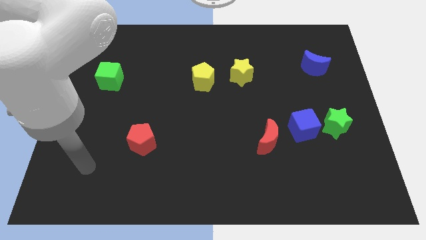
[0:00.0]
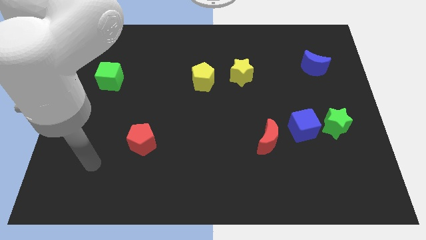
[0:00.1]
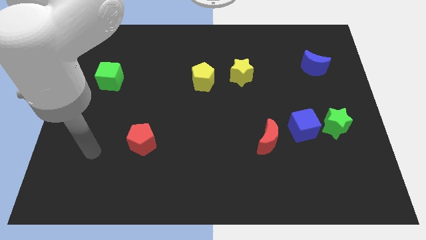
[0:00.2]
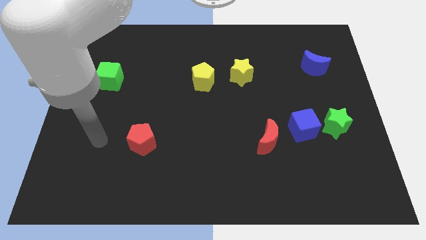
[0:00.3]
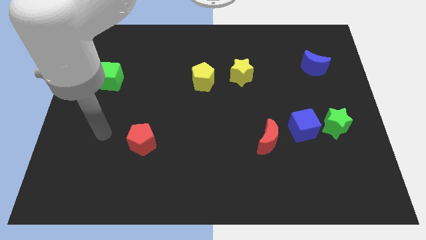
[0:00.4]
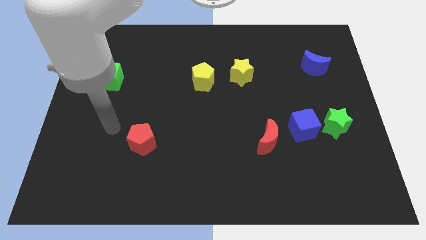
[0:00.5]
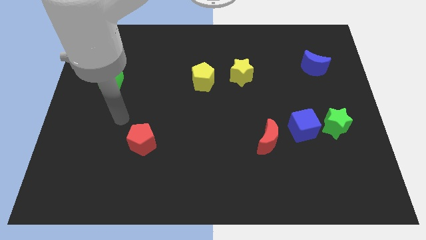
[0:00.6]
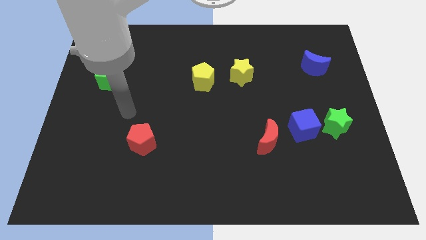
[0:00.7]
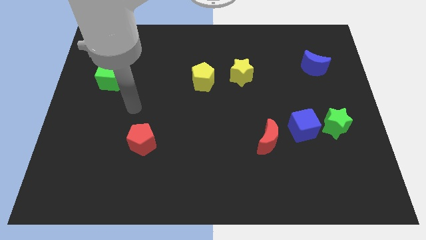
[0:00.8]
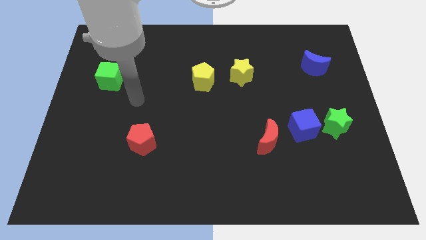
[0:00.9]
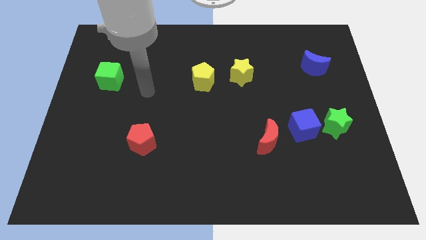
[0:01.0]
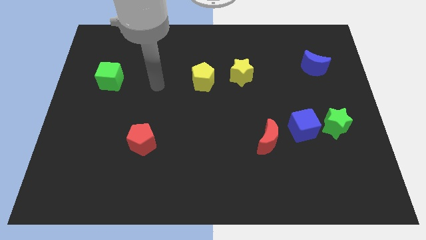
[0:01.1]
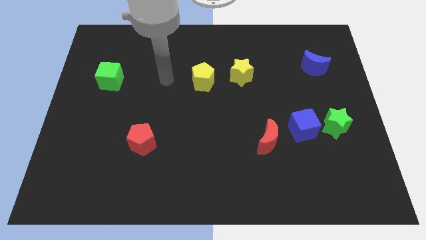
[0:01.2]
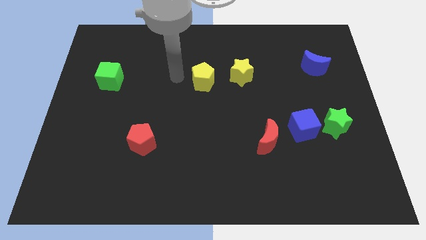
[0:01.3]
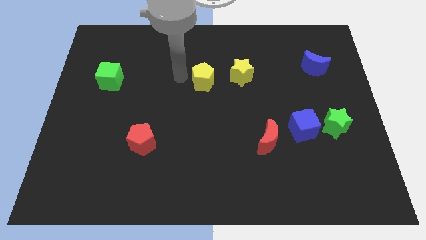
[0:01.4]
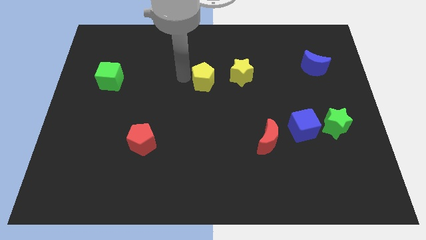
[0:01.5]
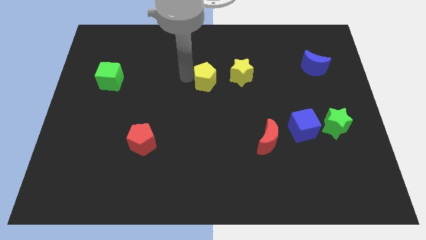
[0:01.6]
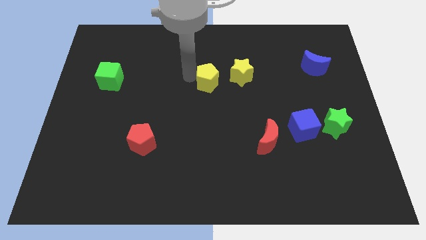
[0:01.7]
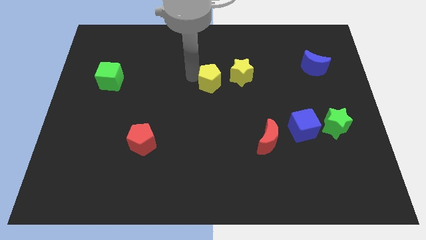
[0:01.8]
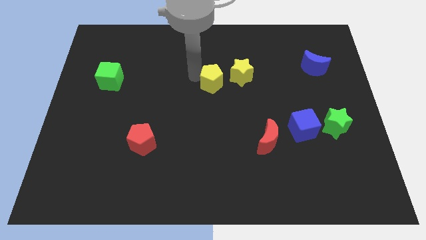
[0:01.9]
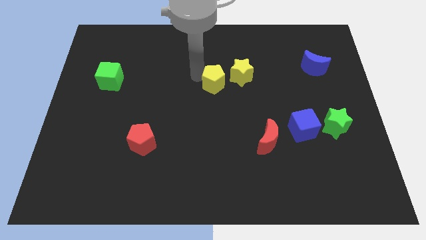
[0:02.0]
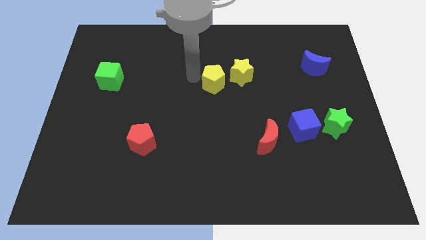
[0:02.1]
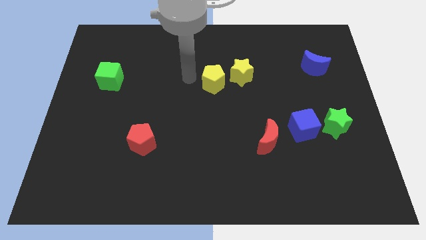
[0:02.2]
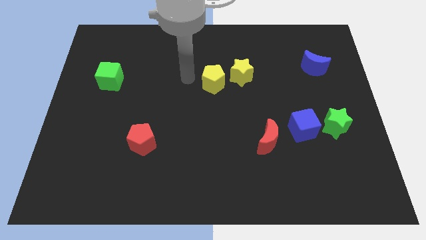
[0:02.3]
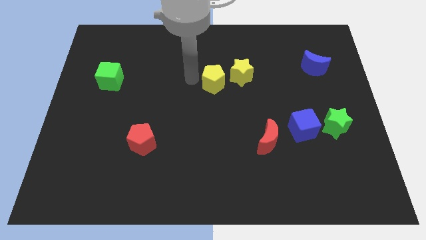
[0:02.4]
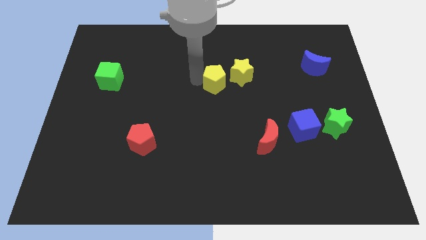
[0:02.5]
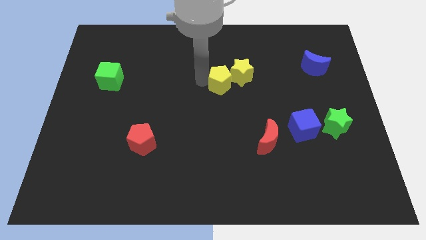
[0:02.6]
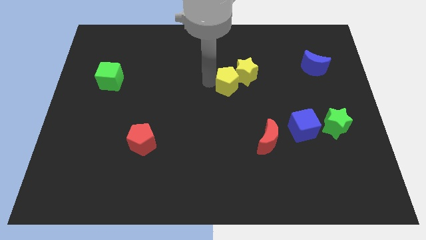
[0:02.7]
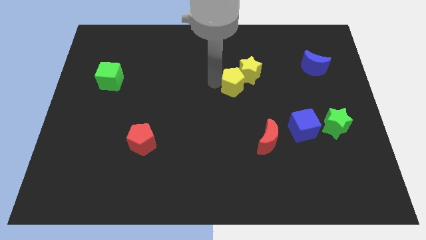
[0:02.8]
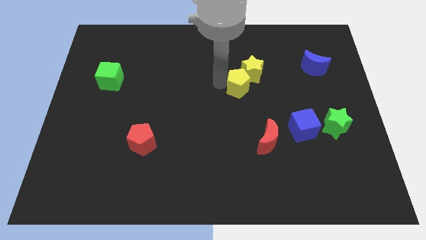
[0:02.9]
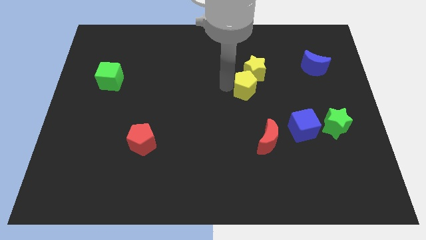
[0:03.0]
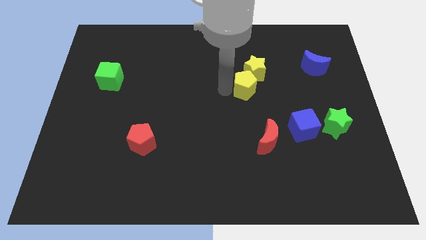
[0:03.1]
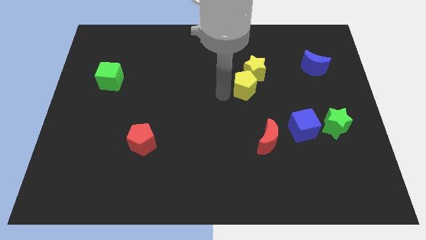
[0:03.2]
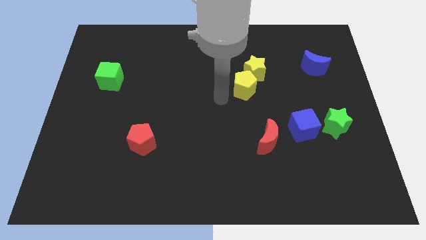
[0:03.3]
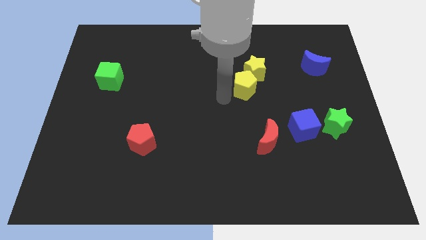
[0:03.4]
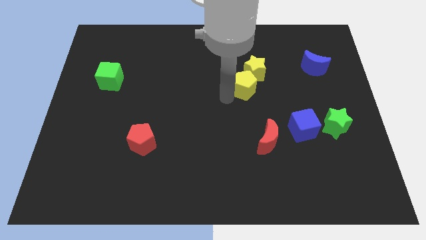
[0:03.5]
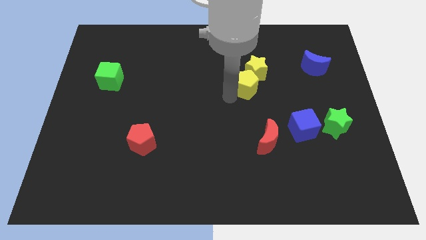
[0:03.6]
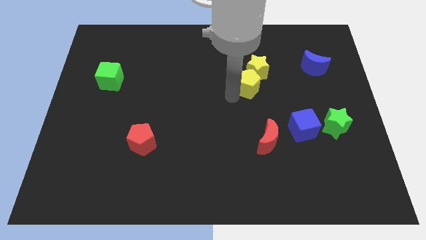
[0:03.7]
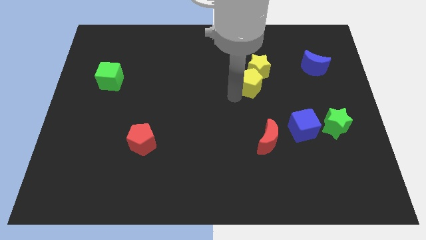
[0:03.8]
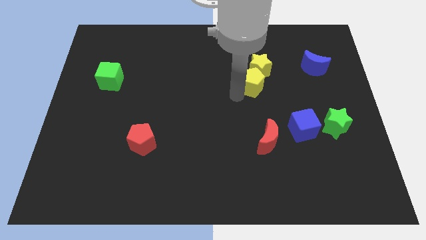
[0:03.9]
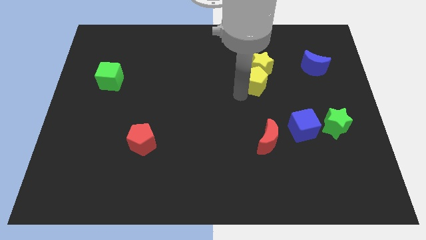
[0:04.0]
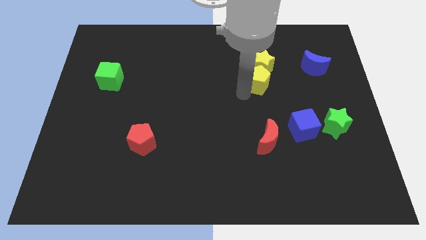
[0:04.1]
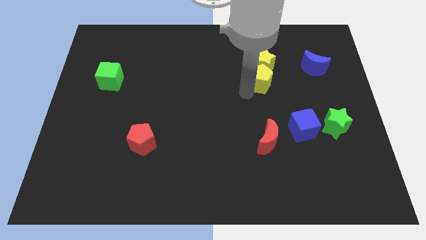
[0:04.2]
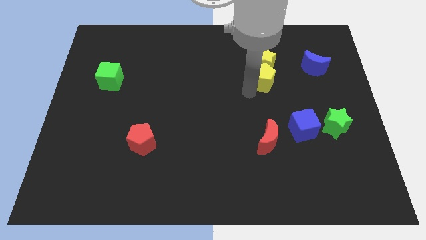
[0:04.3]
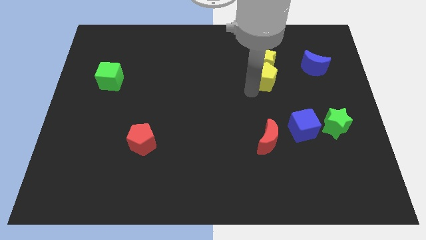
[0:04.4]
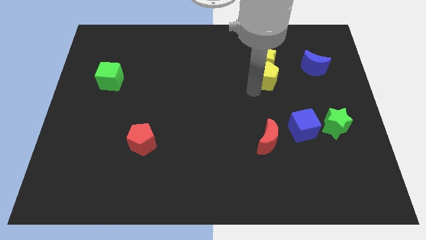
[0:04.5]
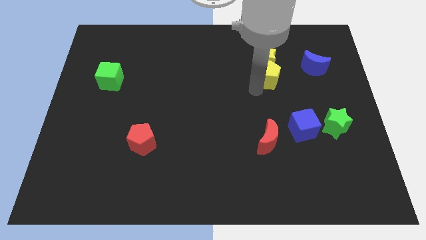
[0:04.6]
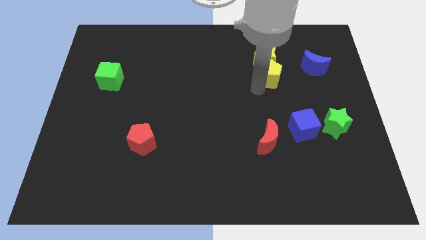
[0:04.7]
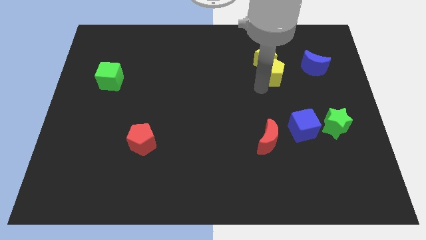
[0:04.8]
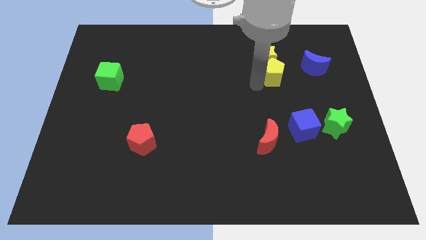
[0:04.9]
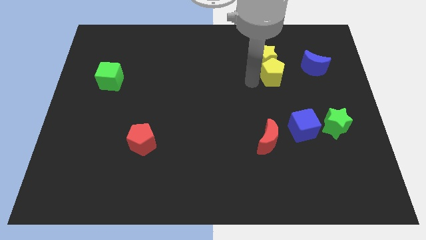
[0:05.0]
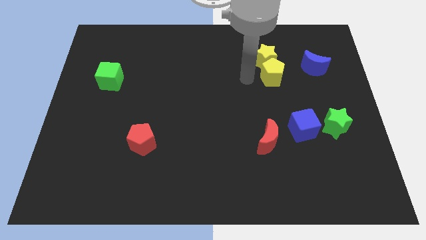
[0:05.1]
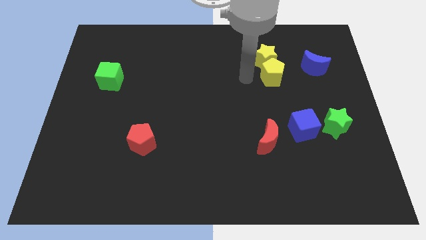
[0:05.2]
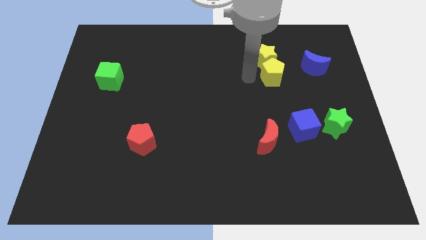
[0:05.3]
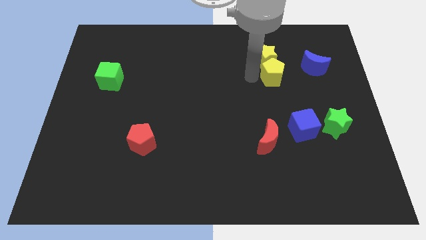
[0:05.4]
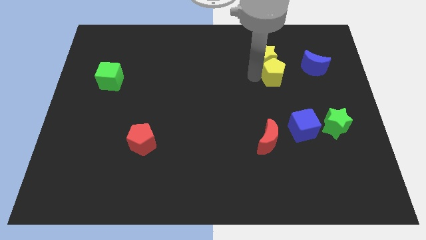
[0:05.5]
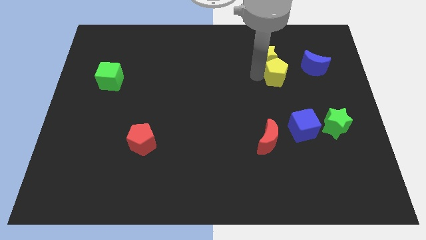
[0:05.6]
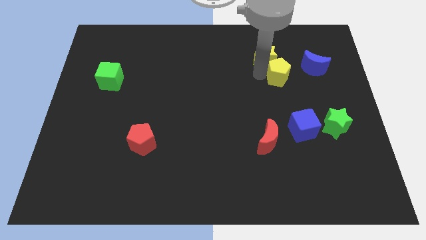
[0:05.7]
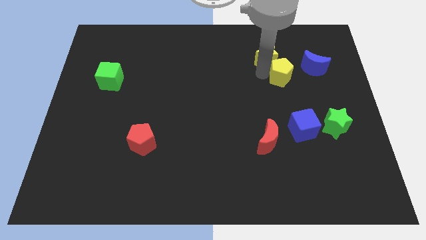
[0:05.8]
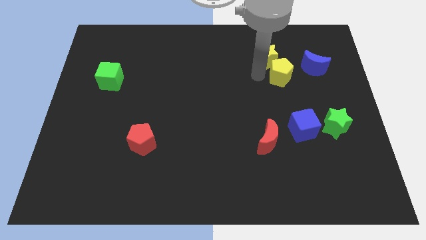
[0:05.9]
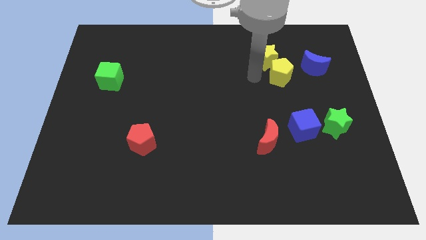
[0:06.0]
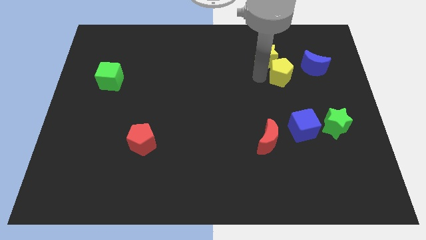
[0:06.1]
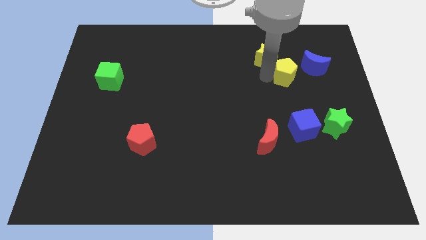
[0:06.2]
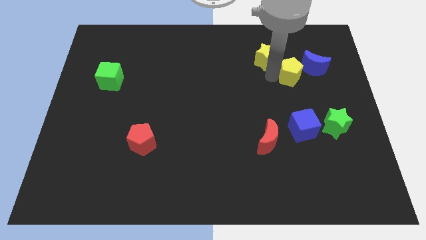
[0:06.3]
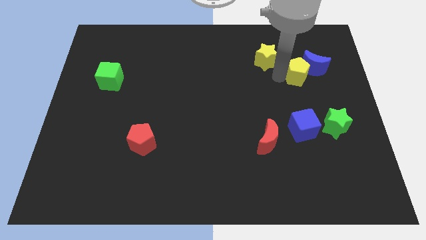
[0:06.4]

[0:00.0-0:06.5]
push the yellow pentagon to the blue moon

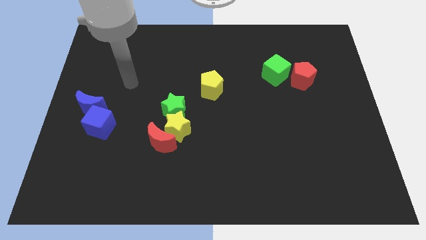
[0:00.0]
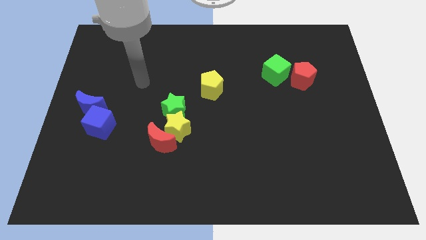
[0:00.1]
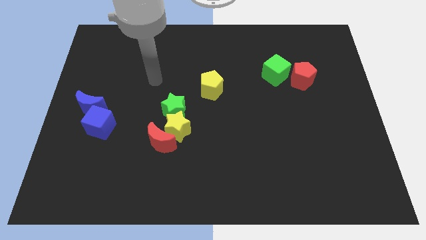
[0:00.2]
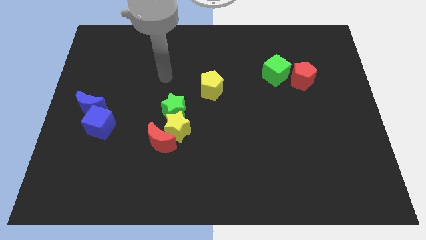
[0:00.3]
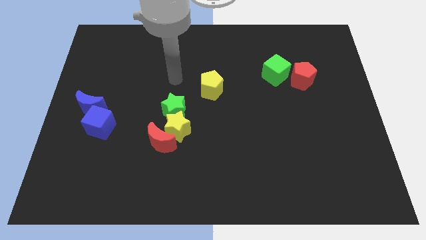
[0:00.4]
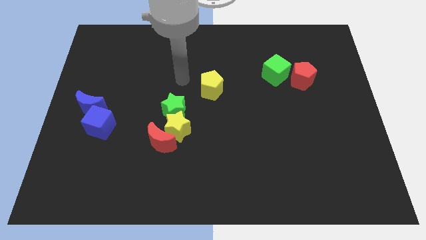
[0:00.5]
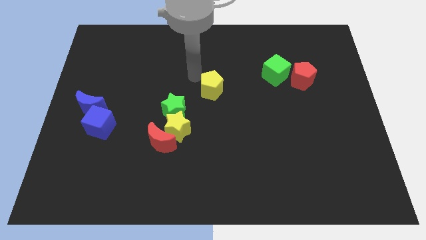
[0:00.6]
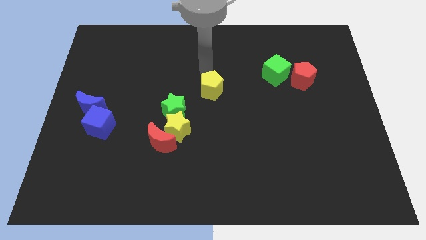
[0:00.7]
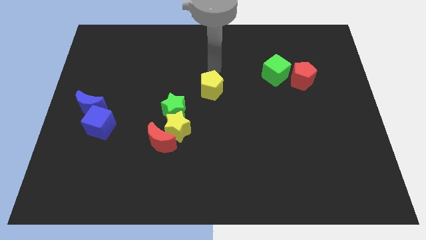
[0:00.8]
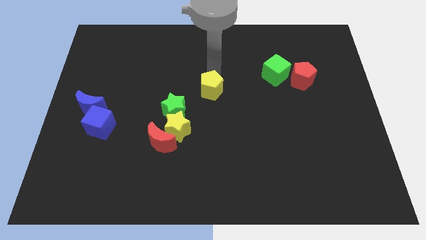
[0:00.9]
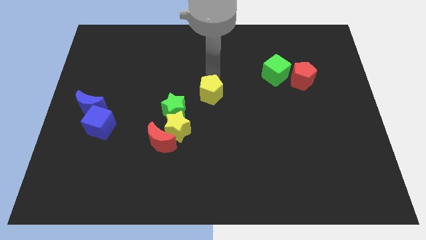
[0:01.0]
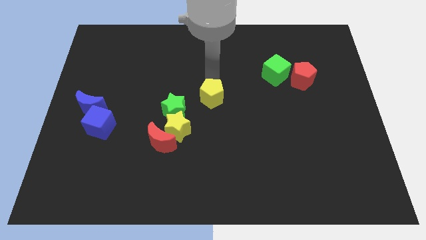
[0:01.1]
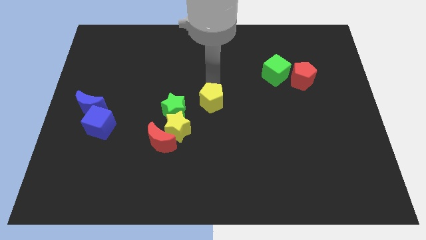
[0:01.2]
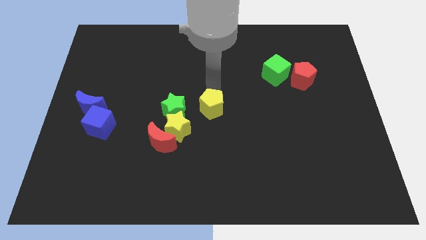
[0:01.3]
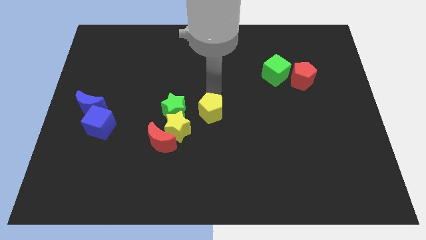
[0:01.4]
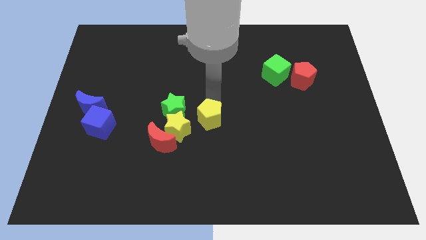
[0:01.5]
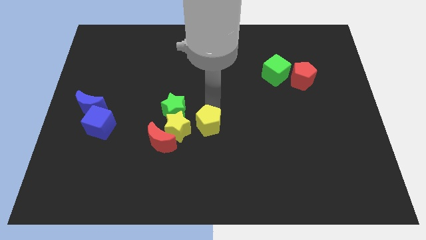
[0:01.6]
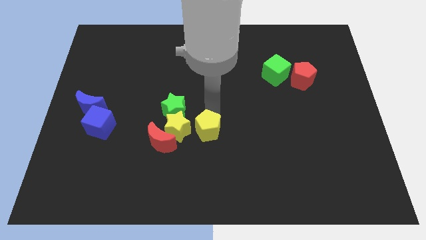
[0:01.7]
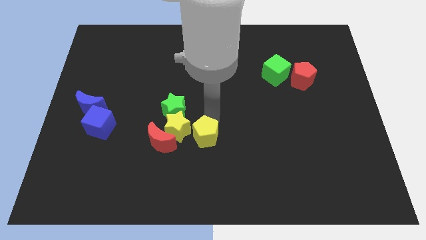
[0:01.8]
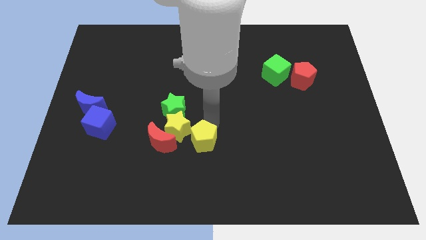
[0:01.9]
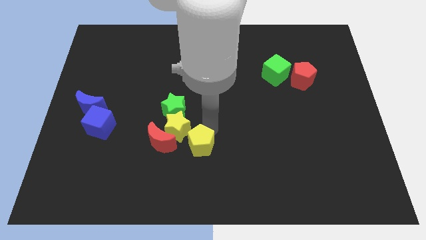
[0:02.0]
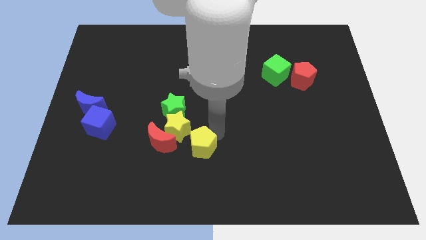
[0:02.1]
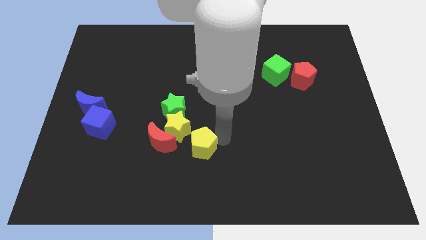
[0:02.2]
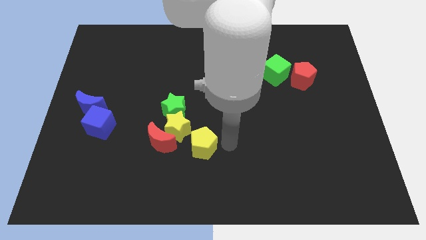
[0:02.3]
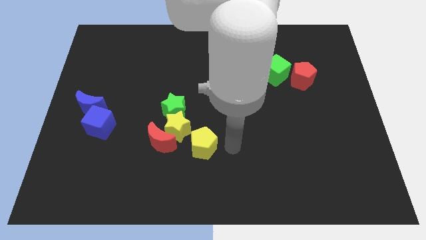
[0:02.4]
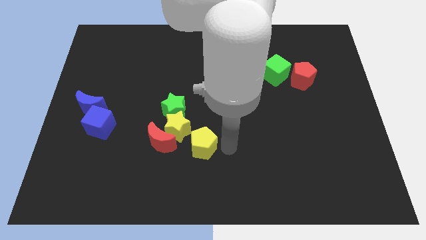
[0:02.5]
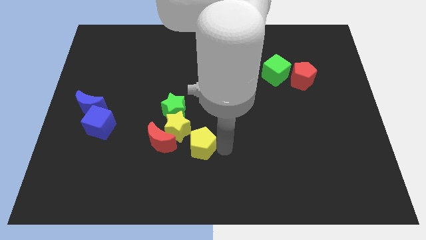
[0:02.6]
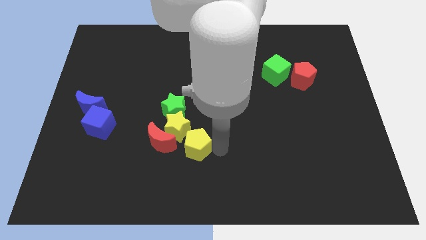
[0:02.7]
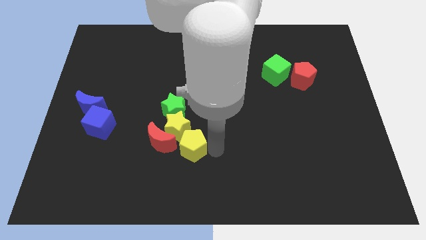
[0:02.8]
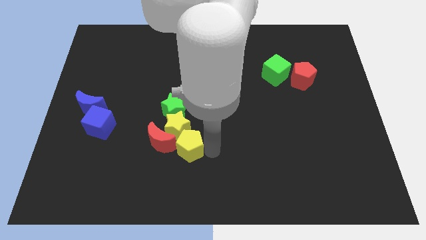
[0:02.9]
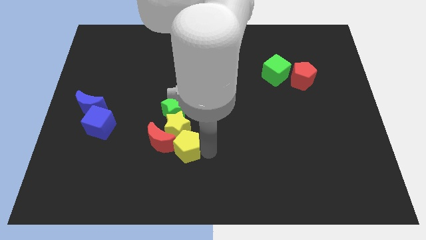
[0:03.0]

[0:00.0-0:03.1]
put the yellow pentagon close to the red moon
